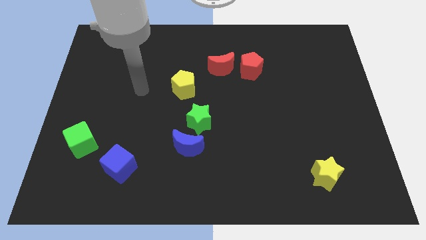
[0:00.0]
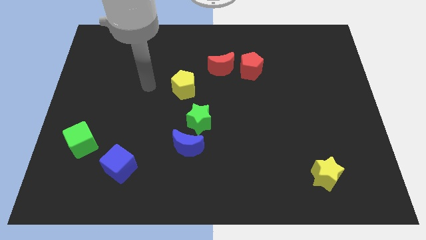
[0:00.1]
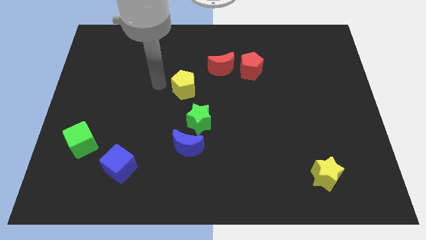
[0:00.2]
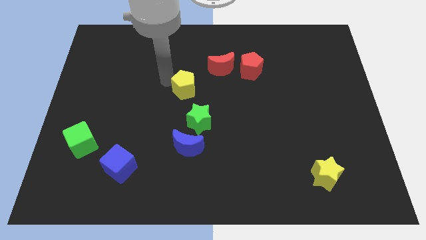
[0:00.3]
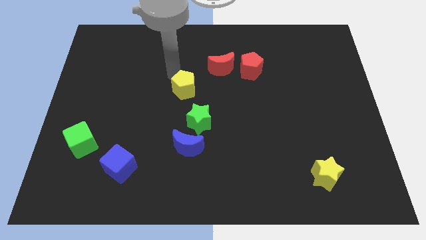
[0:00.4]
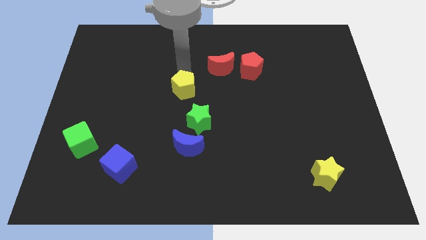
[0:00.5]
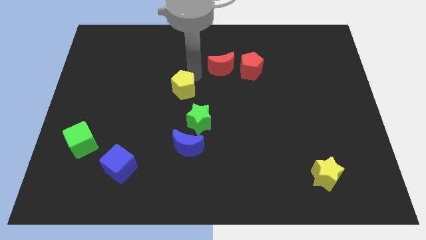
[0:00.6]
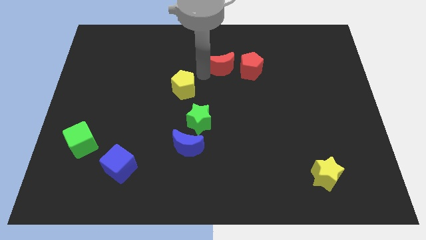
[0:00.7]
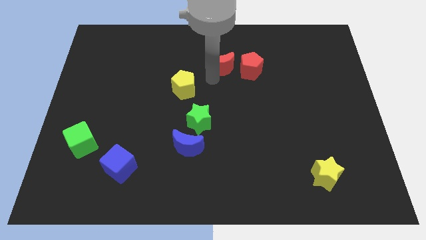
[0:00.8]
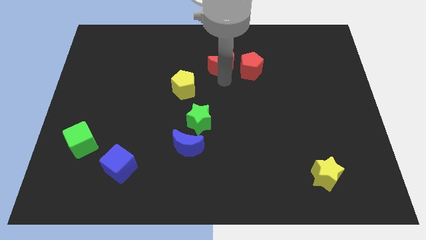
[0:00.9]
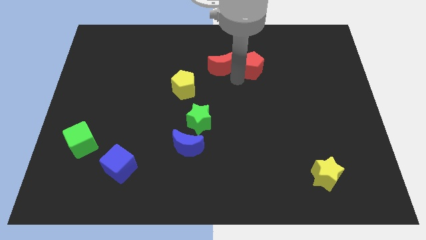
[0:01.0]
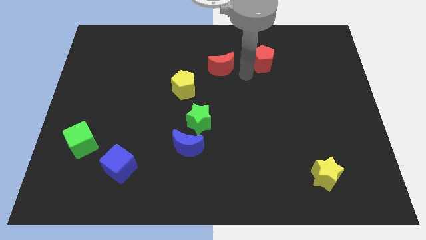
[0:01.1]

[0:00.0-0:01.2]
move the red moon away from the red pentagon

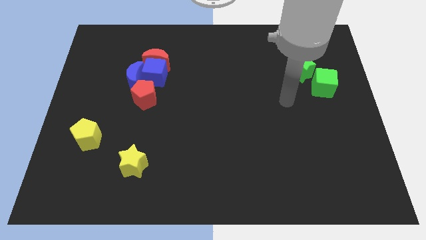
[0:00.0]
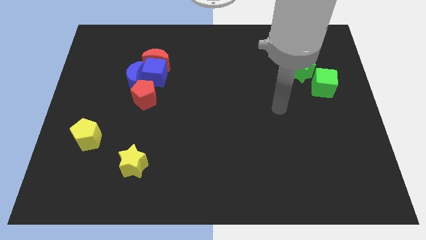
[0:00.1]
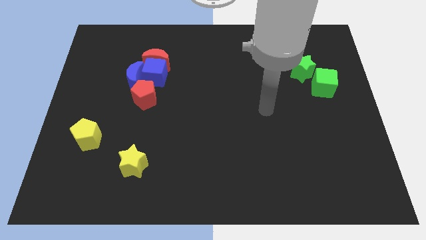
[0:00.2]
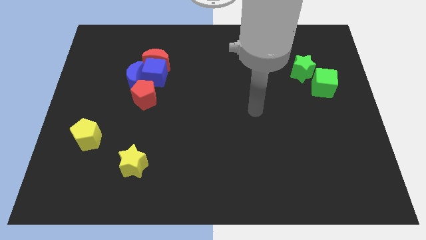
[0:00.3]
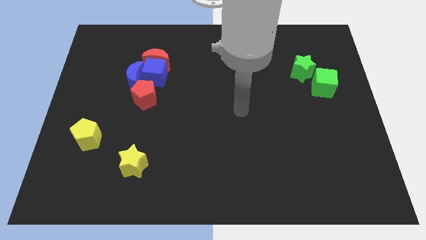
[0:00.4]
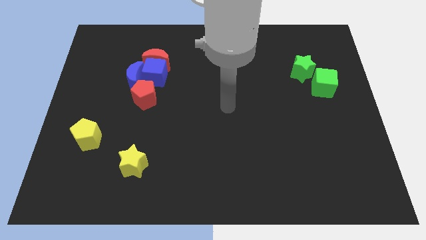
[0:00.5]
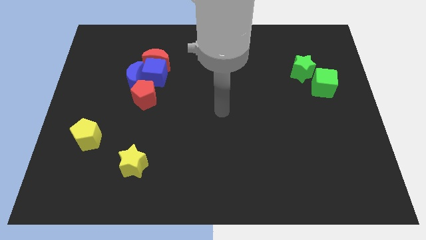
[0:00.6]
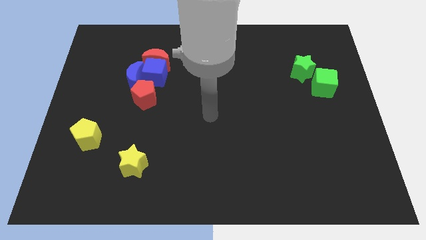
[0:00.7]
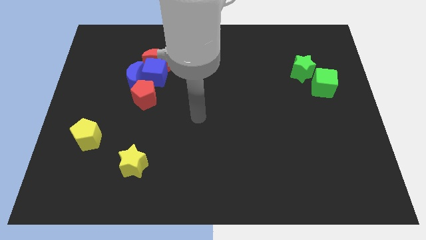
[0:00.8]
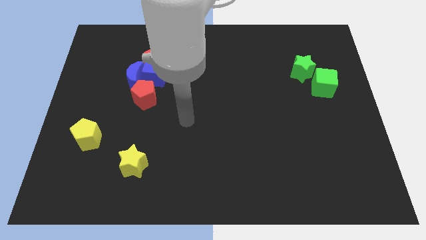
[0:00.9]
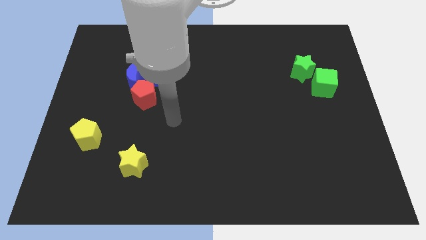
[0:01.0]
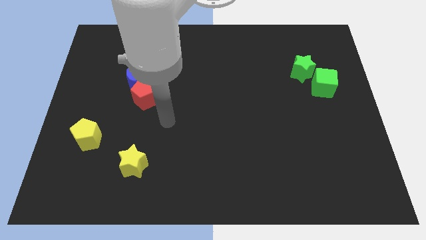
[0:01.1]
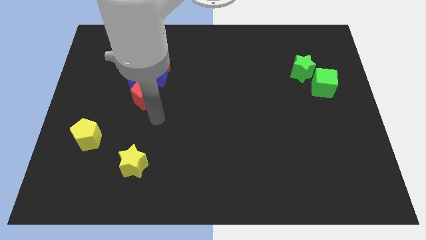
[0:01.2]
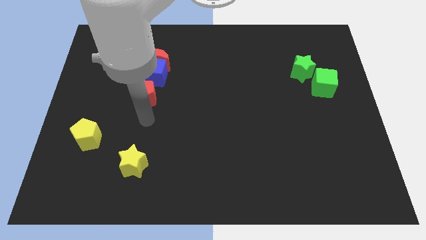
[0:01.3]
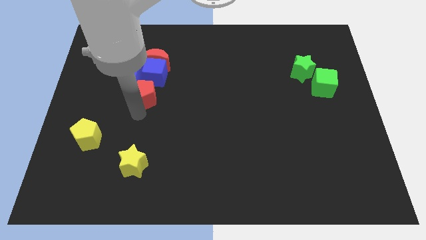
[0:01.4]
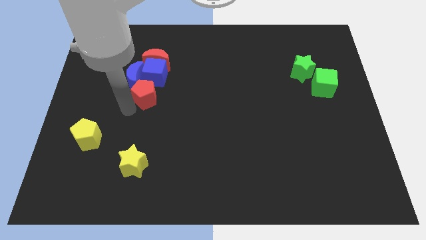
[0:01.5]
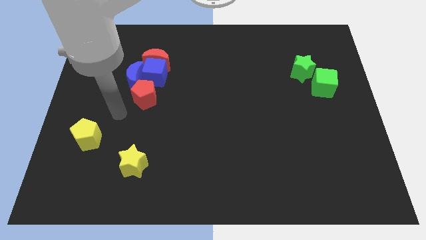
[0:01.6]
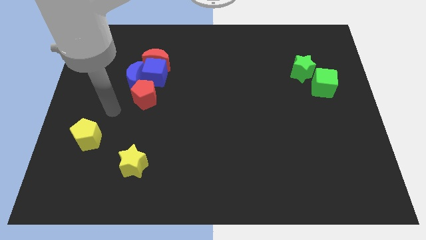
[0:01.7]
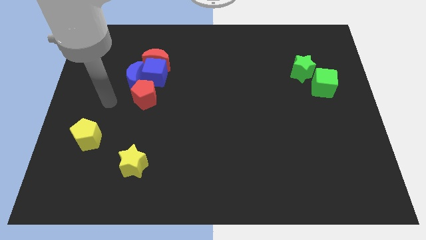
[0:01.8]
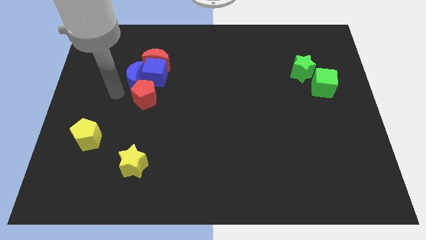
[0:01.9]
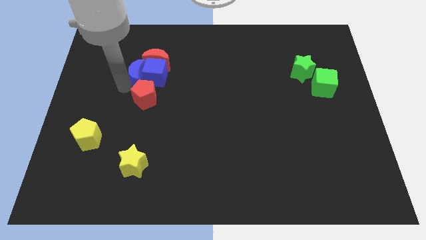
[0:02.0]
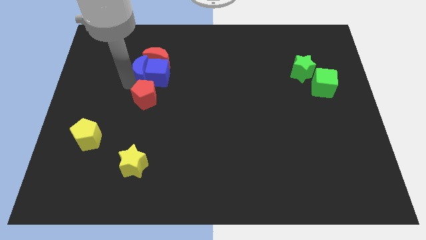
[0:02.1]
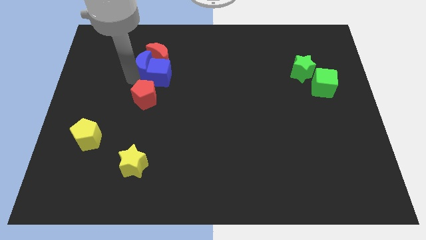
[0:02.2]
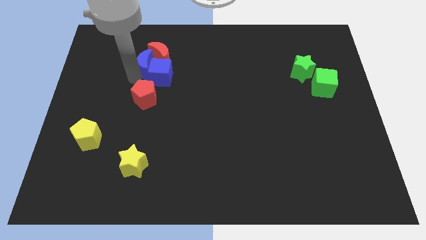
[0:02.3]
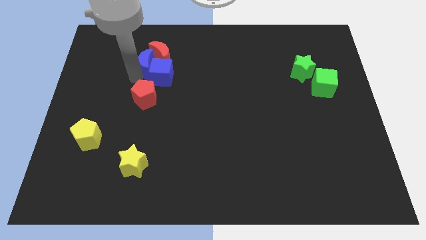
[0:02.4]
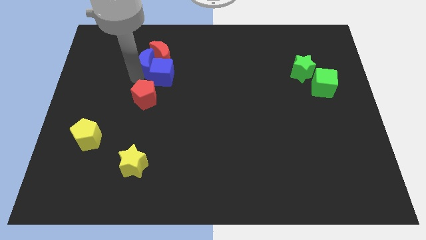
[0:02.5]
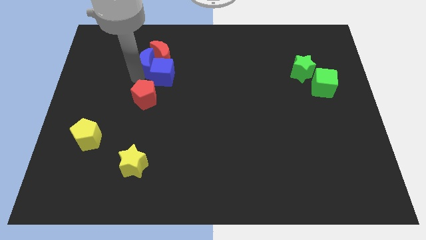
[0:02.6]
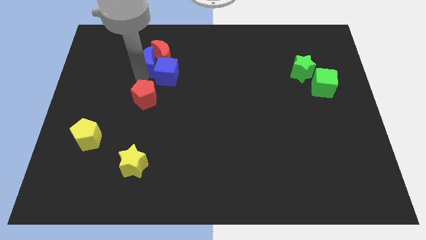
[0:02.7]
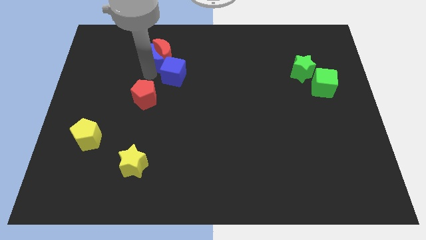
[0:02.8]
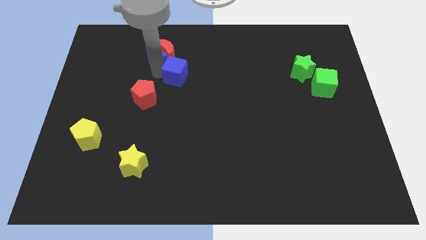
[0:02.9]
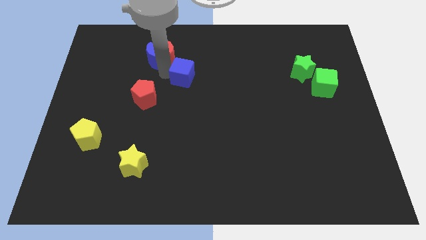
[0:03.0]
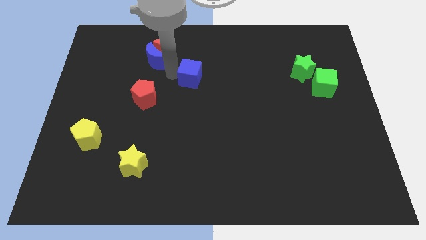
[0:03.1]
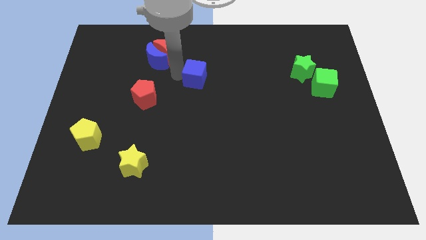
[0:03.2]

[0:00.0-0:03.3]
pull the blue cube apart from the red moon, blue moon, and red pentagon

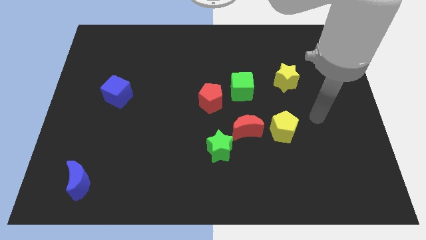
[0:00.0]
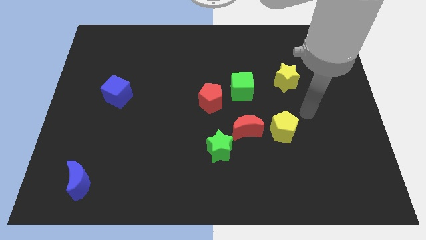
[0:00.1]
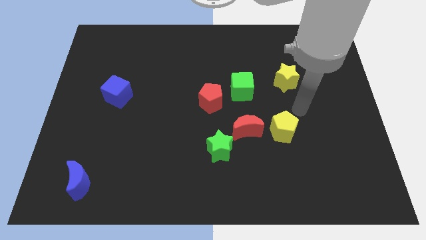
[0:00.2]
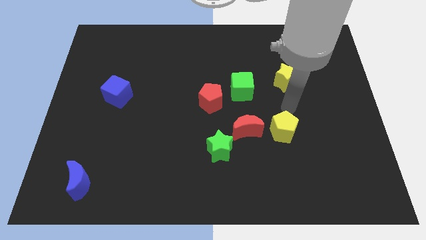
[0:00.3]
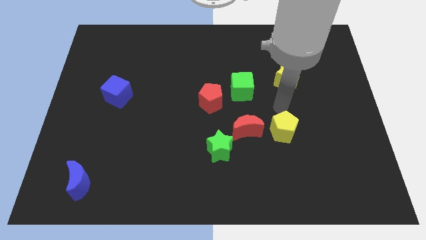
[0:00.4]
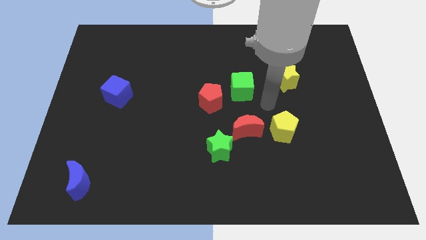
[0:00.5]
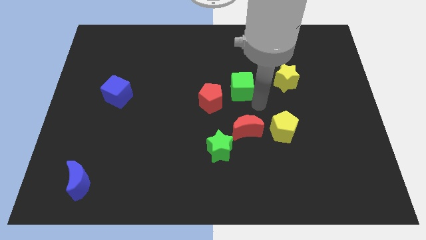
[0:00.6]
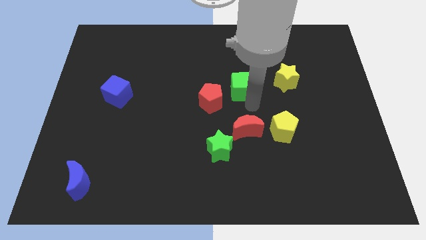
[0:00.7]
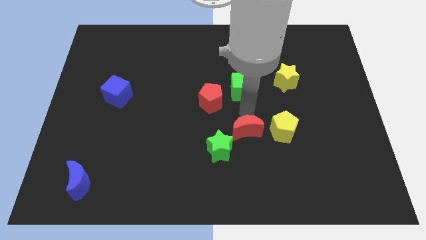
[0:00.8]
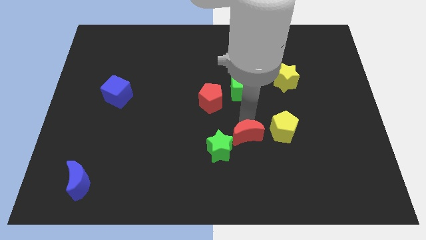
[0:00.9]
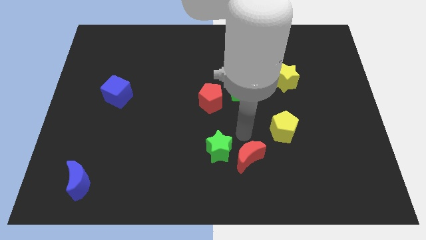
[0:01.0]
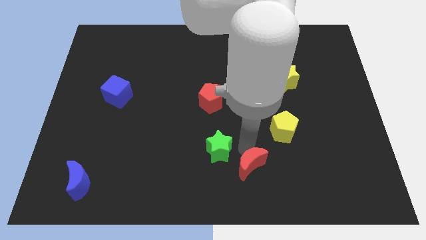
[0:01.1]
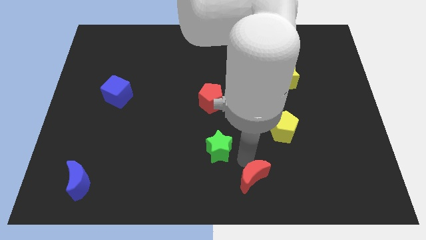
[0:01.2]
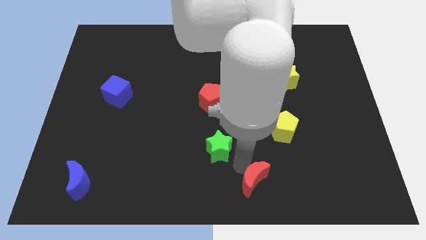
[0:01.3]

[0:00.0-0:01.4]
move the green star away from the red moon

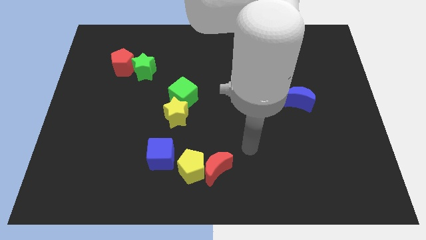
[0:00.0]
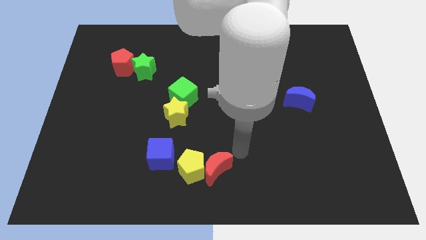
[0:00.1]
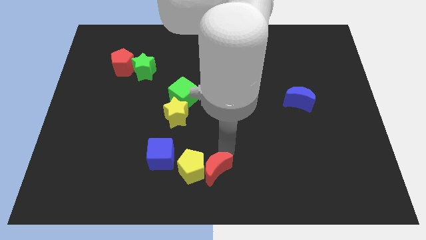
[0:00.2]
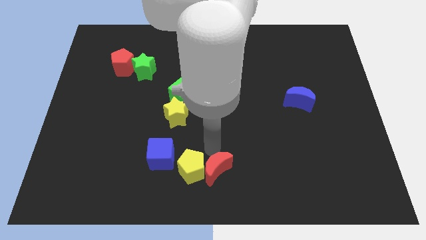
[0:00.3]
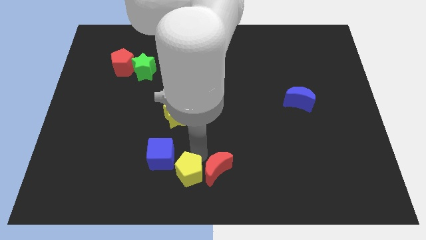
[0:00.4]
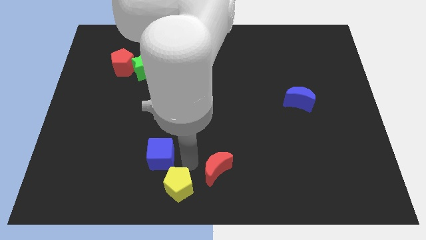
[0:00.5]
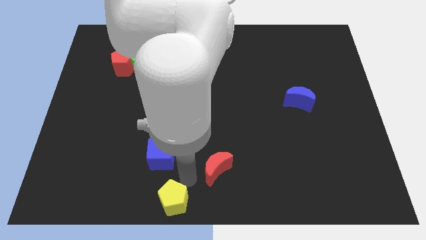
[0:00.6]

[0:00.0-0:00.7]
pull the red moon apart from the yellow pentagon

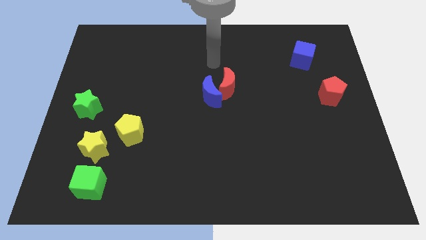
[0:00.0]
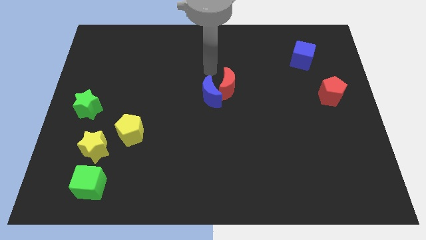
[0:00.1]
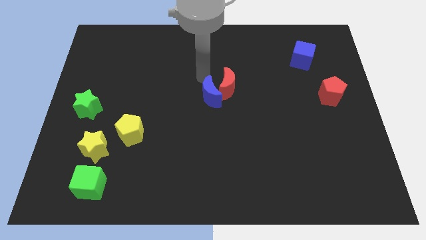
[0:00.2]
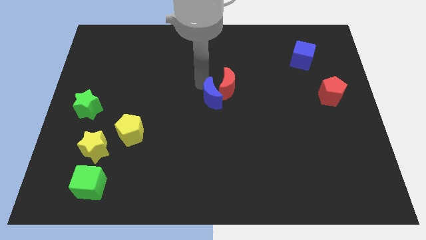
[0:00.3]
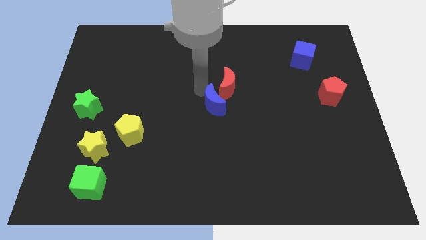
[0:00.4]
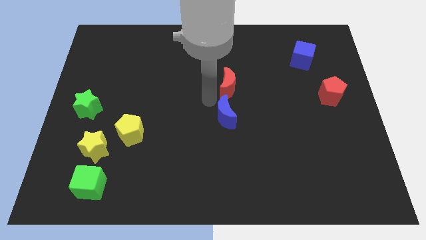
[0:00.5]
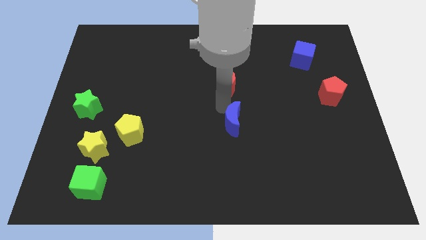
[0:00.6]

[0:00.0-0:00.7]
separate the red moon from the blue moon

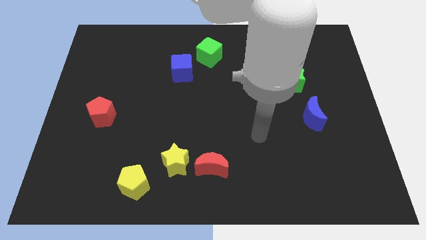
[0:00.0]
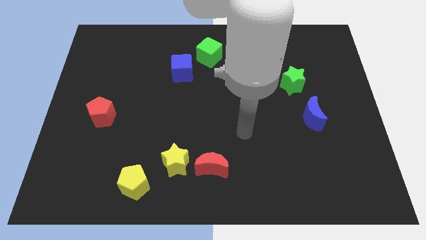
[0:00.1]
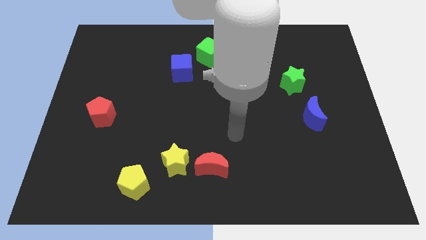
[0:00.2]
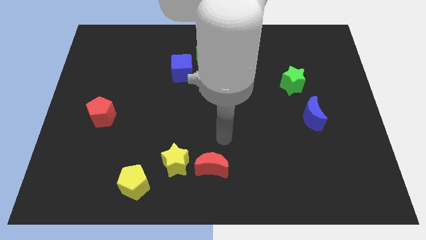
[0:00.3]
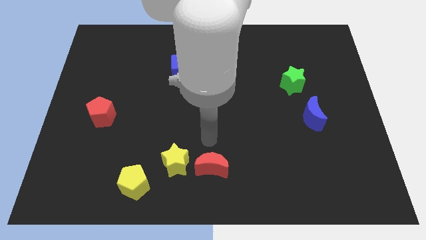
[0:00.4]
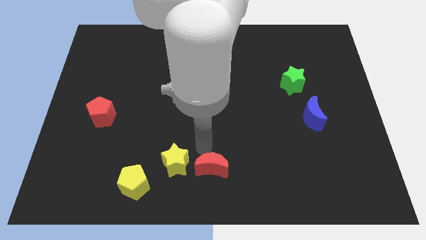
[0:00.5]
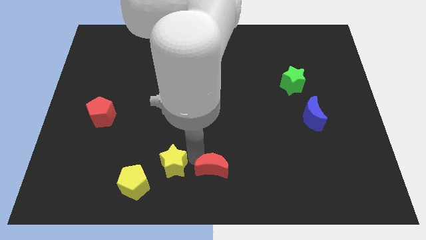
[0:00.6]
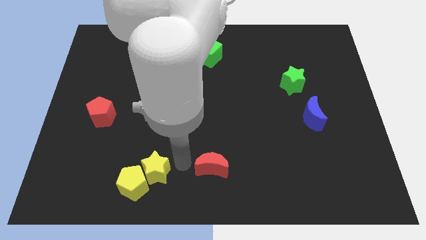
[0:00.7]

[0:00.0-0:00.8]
separate the red moon from the yellow star

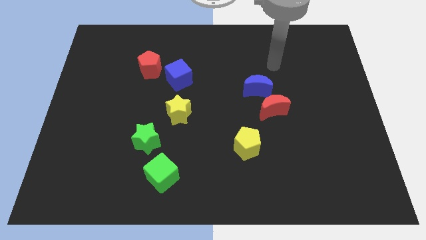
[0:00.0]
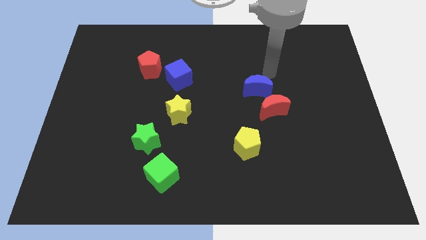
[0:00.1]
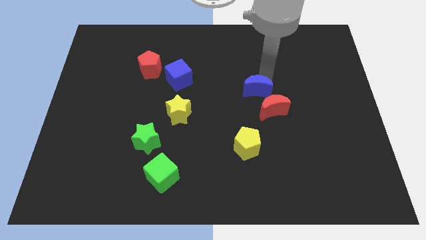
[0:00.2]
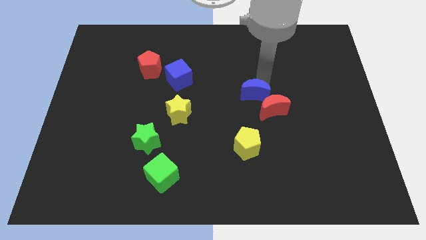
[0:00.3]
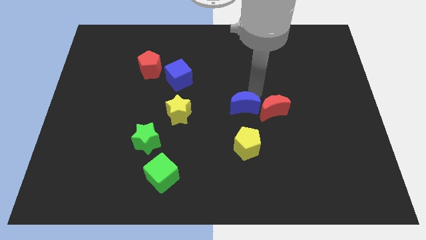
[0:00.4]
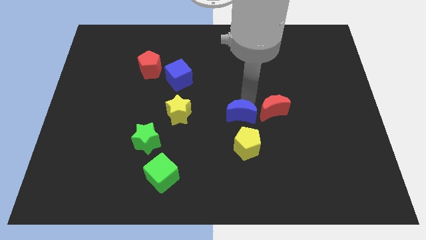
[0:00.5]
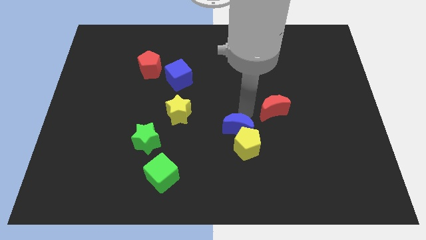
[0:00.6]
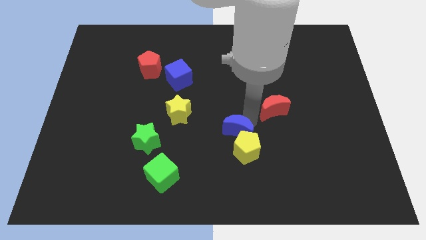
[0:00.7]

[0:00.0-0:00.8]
move the red moon away from the blue moon

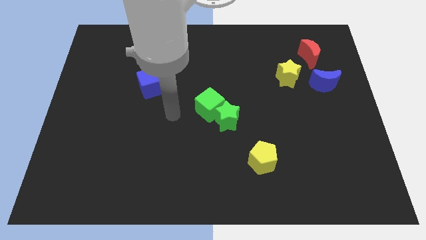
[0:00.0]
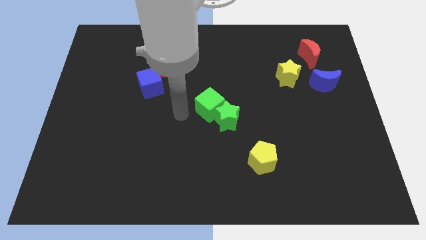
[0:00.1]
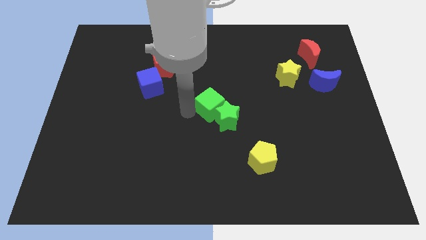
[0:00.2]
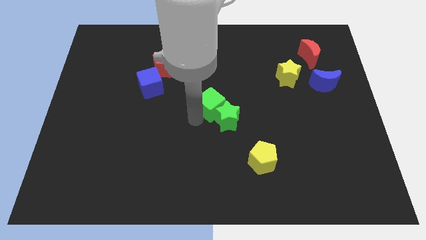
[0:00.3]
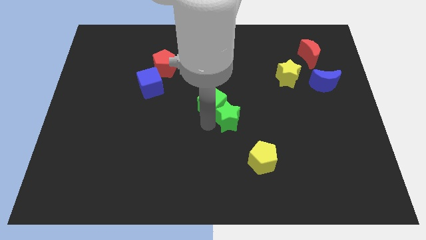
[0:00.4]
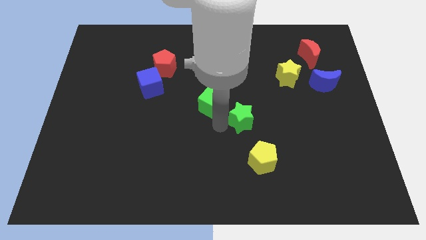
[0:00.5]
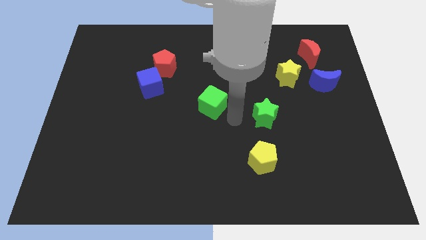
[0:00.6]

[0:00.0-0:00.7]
pull the green cube apart from the green star
